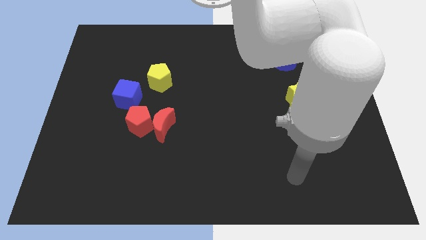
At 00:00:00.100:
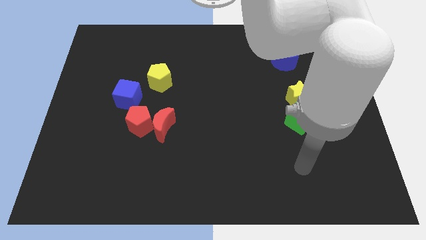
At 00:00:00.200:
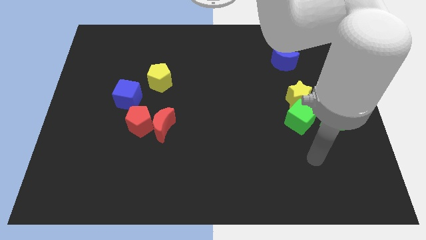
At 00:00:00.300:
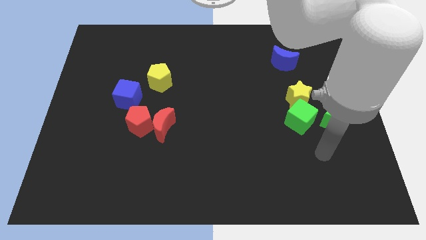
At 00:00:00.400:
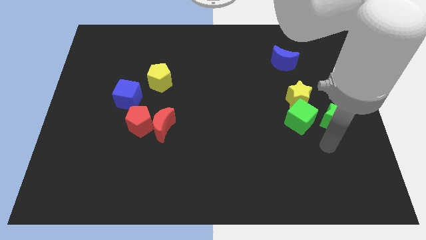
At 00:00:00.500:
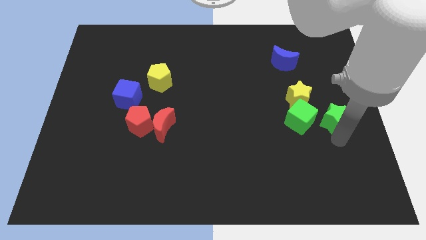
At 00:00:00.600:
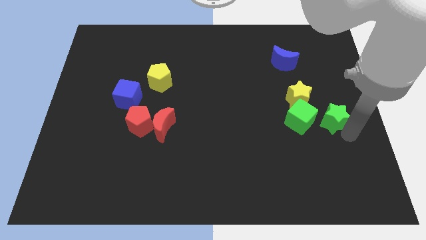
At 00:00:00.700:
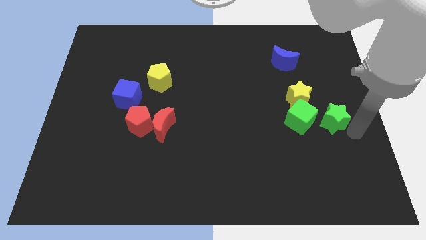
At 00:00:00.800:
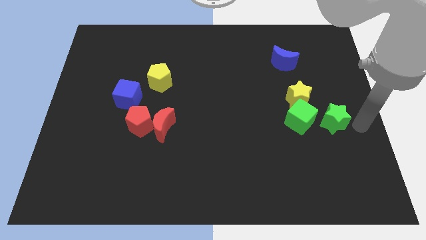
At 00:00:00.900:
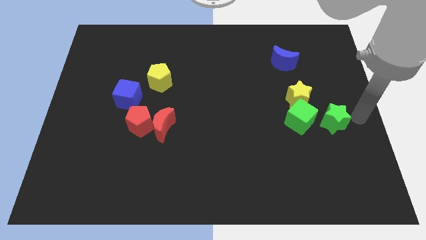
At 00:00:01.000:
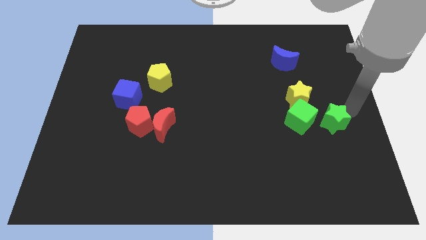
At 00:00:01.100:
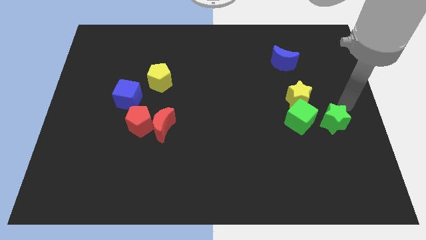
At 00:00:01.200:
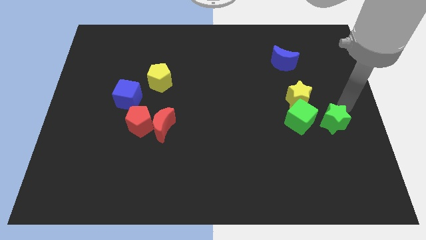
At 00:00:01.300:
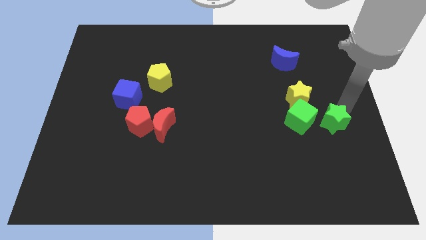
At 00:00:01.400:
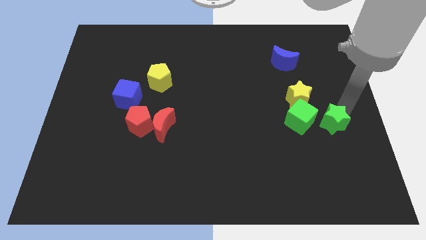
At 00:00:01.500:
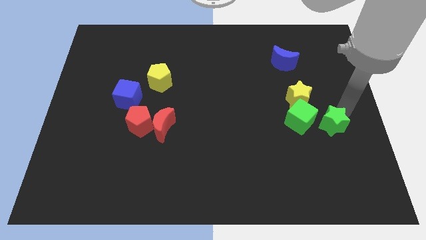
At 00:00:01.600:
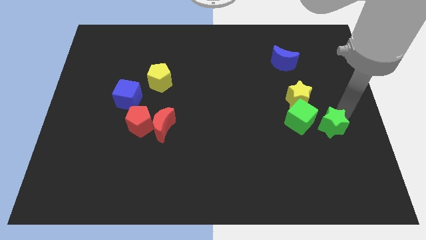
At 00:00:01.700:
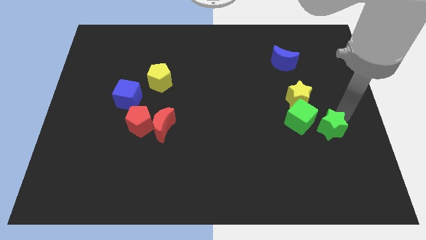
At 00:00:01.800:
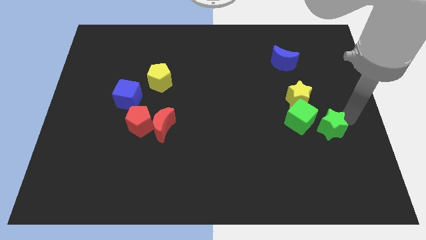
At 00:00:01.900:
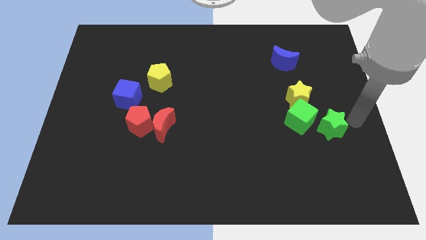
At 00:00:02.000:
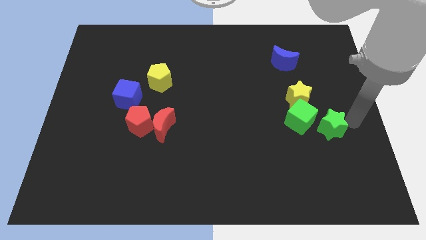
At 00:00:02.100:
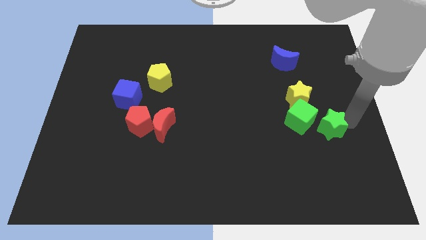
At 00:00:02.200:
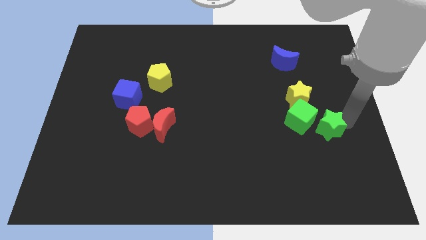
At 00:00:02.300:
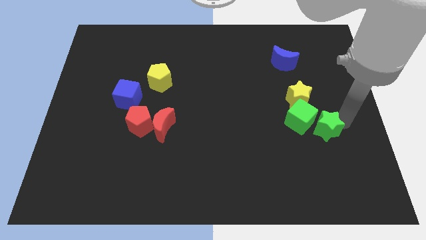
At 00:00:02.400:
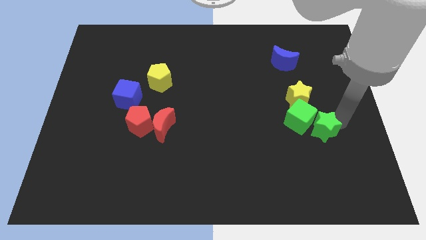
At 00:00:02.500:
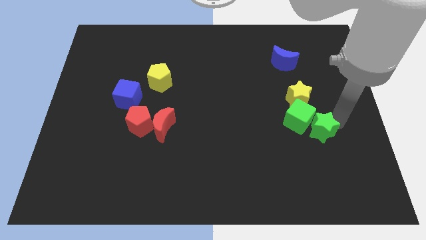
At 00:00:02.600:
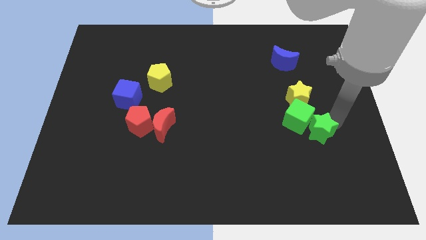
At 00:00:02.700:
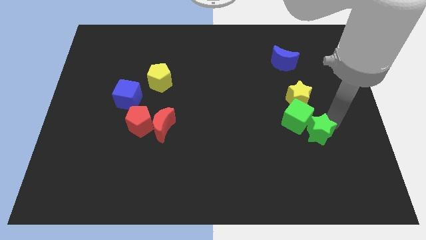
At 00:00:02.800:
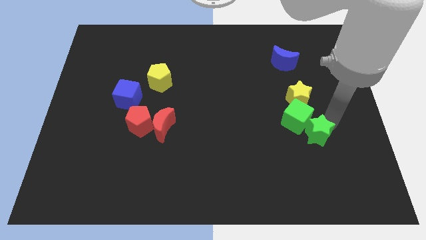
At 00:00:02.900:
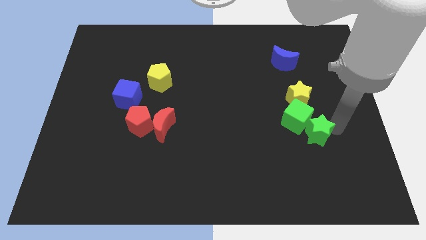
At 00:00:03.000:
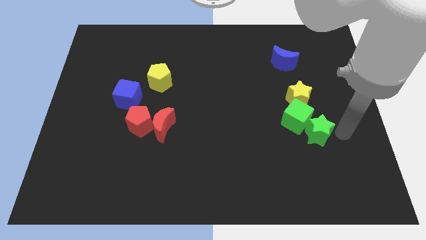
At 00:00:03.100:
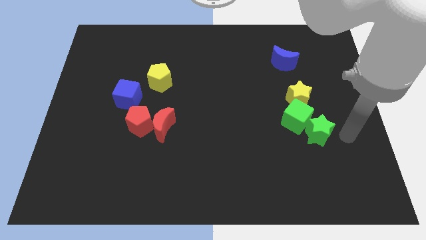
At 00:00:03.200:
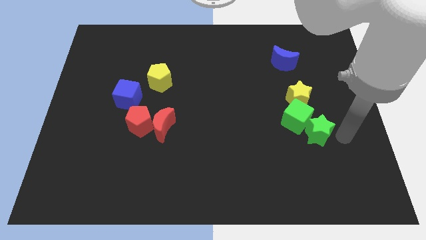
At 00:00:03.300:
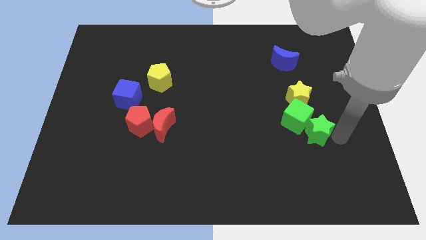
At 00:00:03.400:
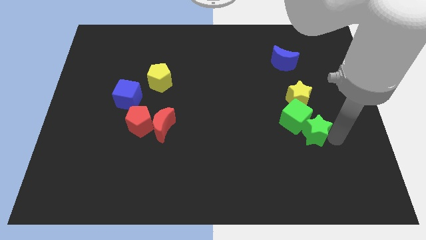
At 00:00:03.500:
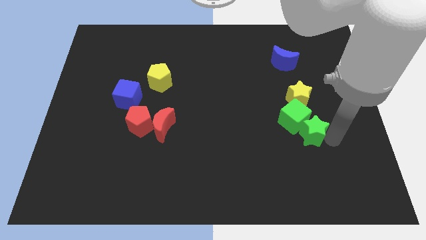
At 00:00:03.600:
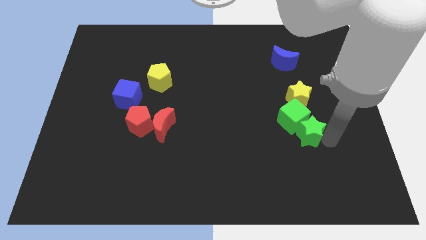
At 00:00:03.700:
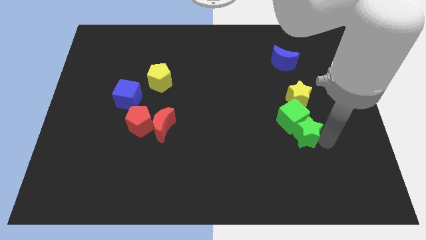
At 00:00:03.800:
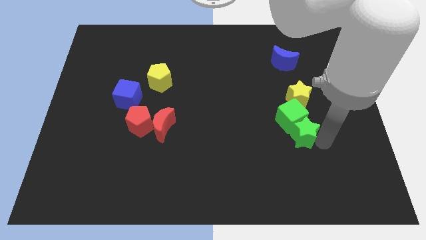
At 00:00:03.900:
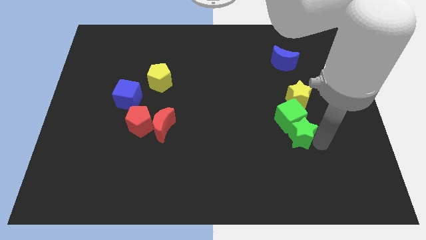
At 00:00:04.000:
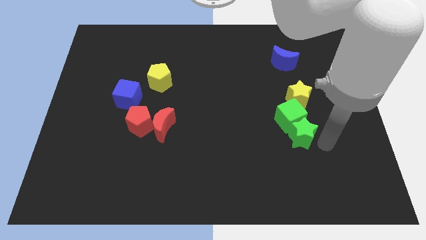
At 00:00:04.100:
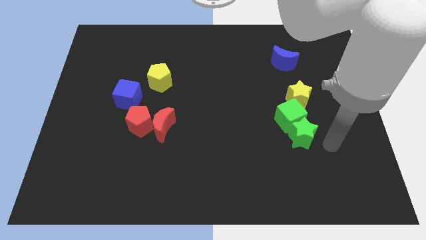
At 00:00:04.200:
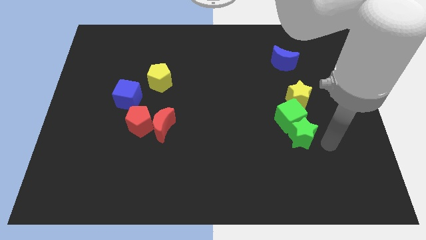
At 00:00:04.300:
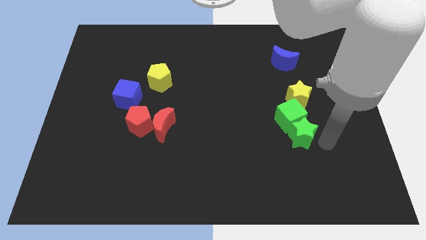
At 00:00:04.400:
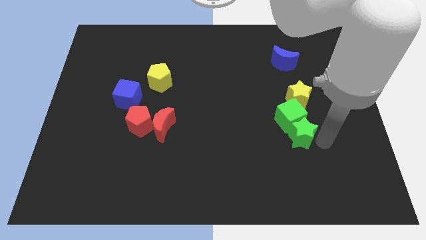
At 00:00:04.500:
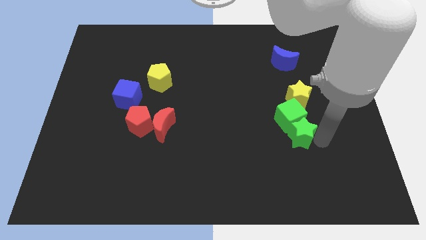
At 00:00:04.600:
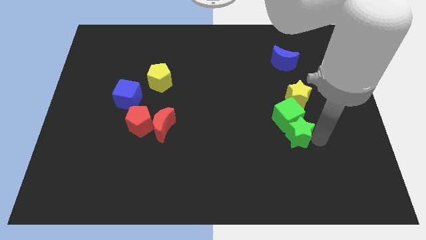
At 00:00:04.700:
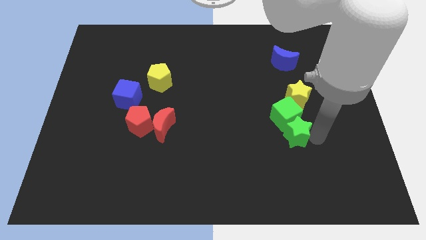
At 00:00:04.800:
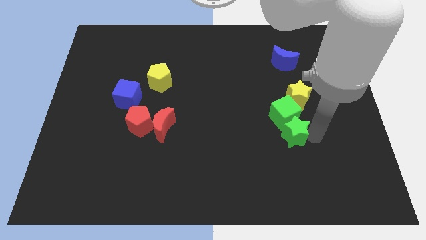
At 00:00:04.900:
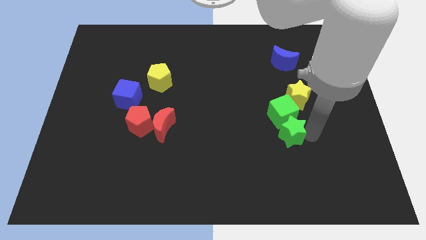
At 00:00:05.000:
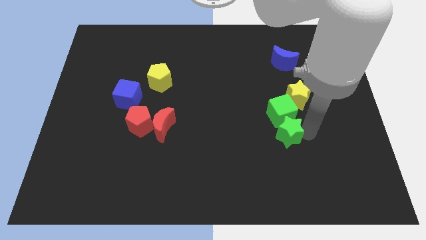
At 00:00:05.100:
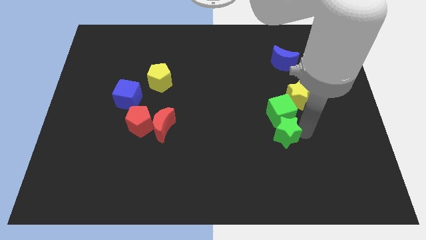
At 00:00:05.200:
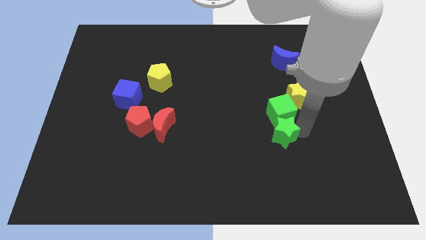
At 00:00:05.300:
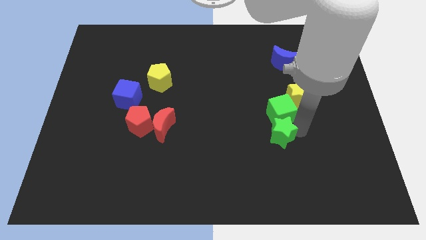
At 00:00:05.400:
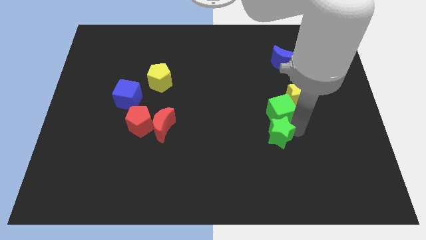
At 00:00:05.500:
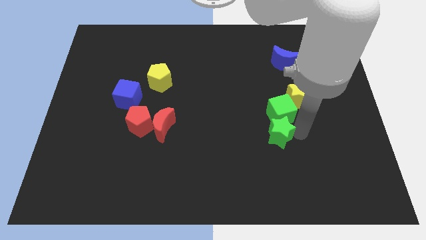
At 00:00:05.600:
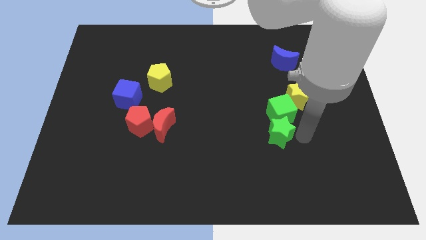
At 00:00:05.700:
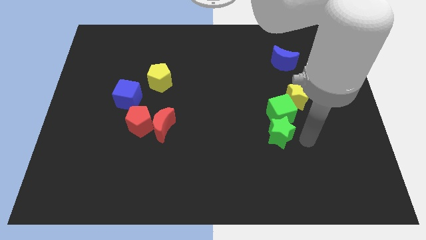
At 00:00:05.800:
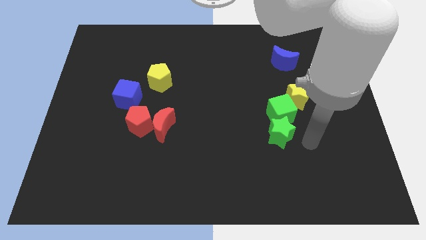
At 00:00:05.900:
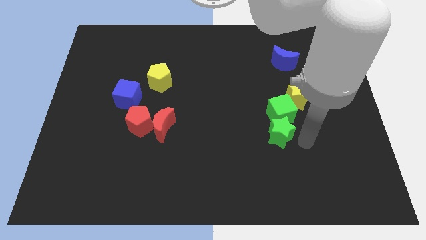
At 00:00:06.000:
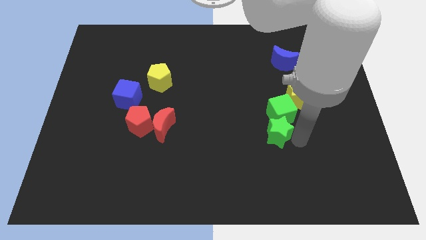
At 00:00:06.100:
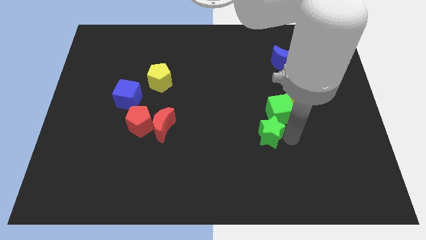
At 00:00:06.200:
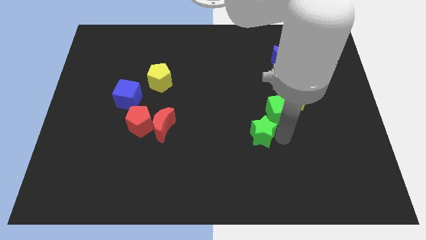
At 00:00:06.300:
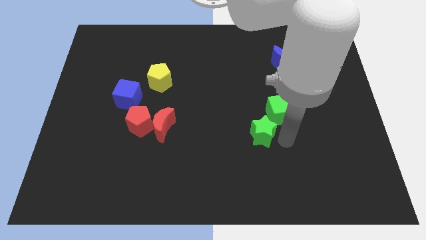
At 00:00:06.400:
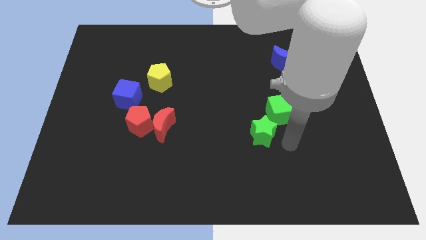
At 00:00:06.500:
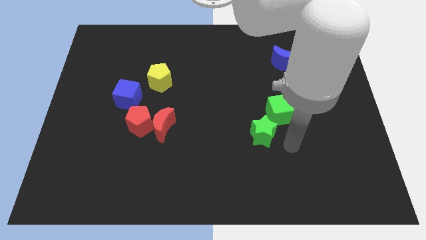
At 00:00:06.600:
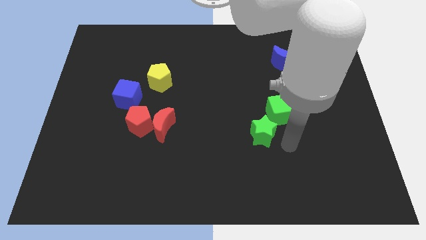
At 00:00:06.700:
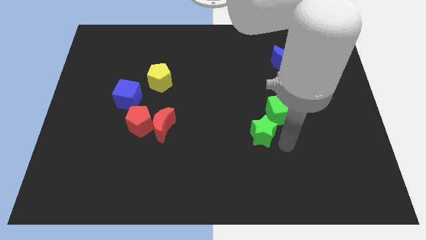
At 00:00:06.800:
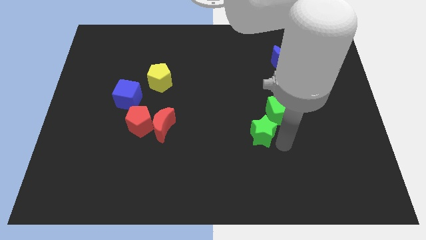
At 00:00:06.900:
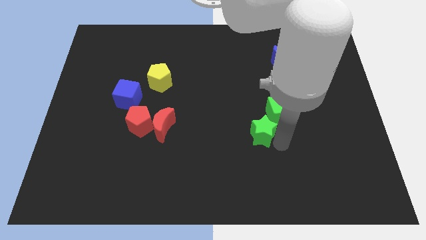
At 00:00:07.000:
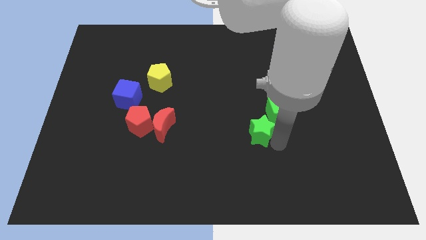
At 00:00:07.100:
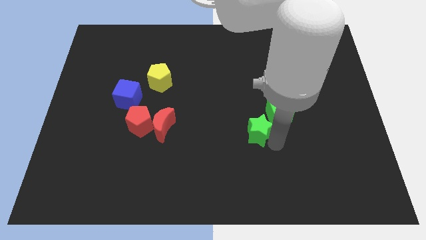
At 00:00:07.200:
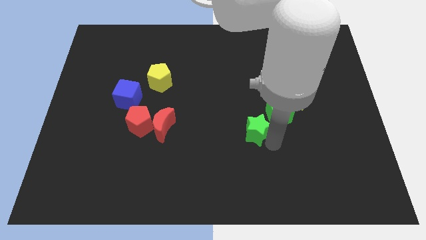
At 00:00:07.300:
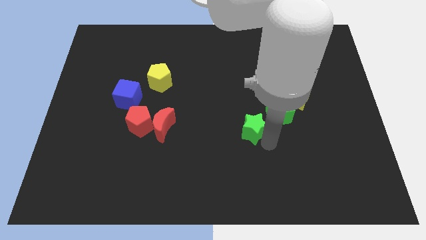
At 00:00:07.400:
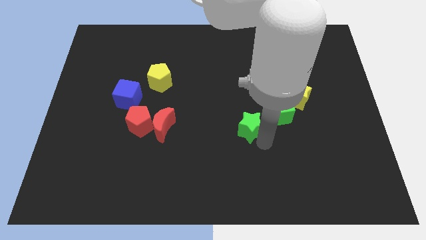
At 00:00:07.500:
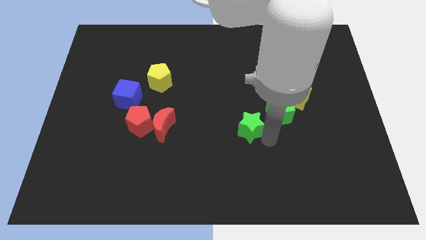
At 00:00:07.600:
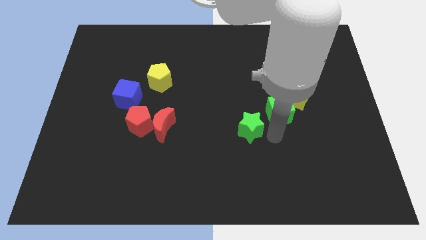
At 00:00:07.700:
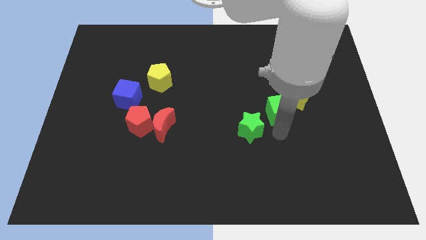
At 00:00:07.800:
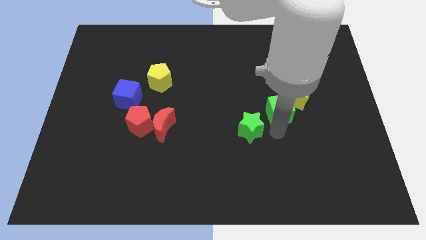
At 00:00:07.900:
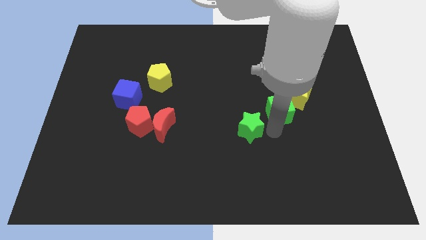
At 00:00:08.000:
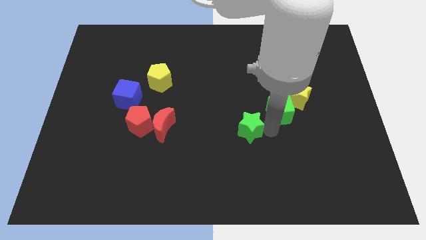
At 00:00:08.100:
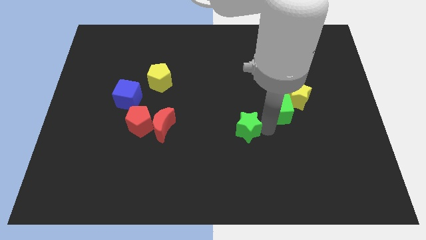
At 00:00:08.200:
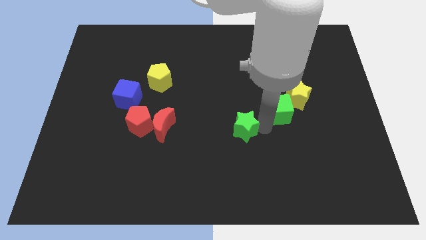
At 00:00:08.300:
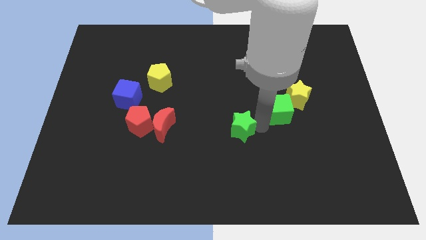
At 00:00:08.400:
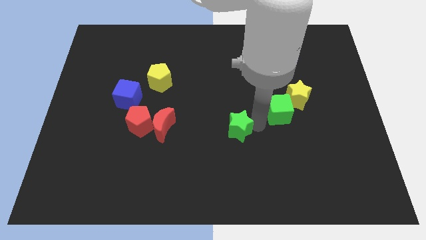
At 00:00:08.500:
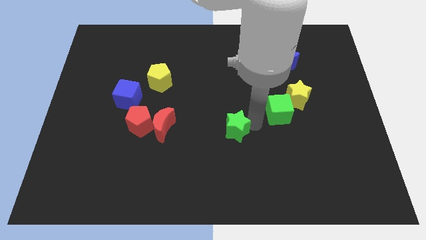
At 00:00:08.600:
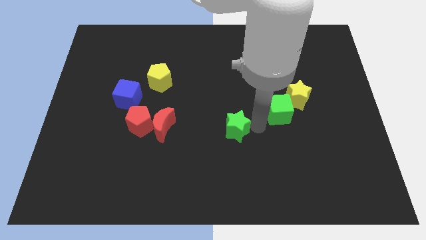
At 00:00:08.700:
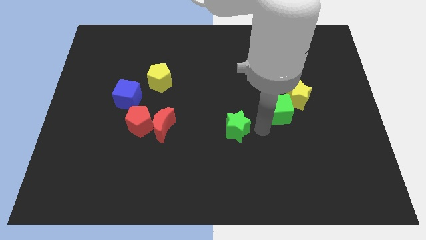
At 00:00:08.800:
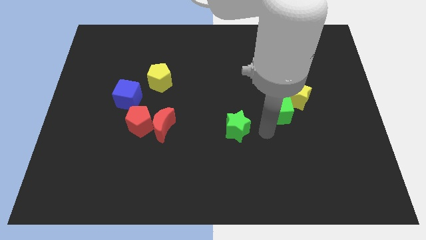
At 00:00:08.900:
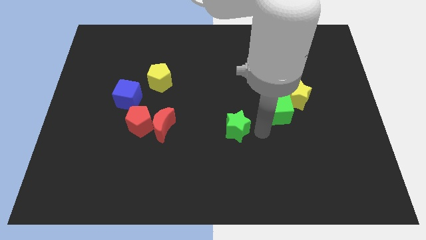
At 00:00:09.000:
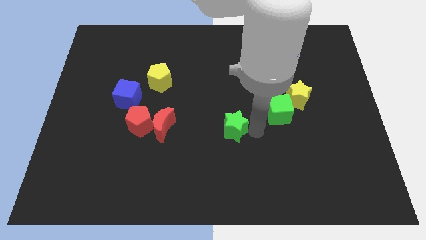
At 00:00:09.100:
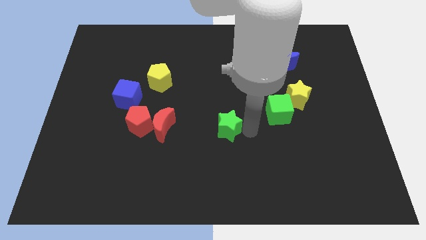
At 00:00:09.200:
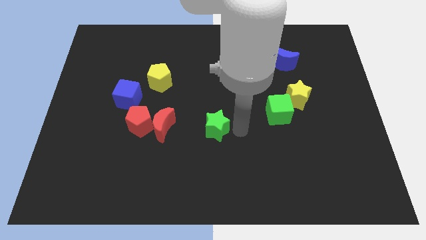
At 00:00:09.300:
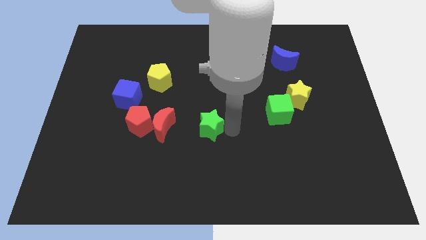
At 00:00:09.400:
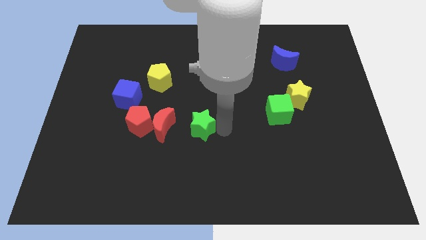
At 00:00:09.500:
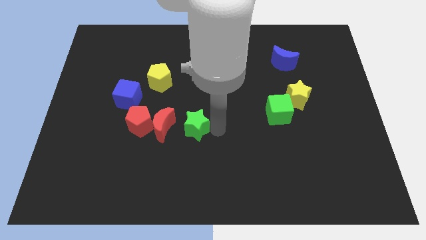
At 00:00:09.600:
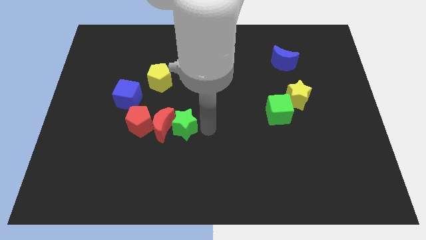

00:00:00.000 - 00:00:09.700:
slide the green star next to the red moon
